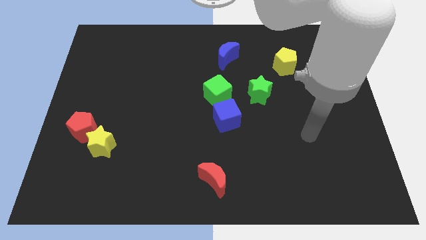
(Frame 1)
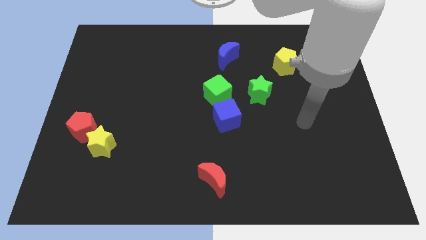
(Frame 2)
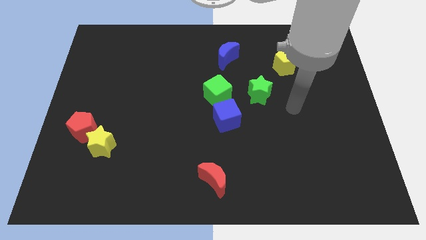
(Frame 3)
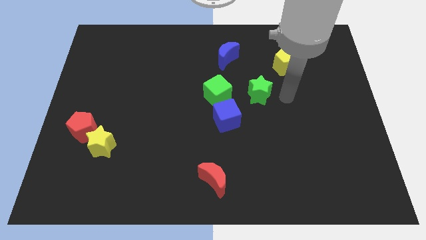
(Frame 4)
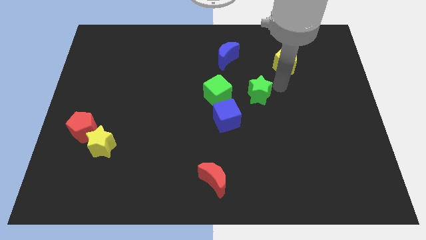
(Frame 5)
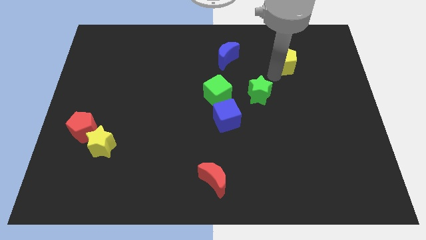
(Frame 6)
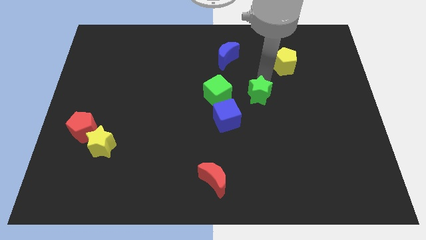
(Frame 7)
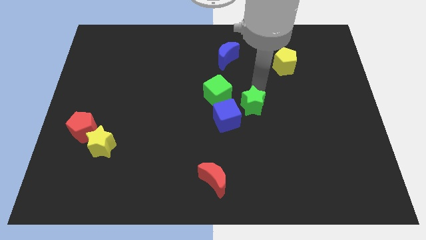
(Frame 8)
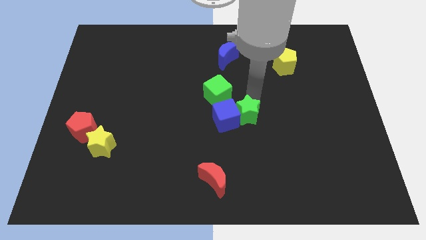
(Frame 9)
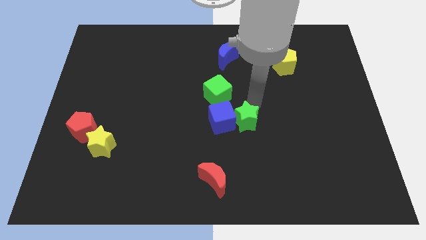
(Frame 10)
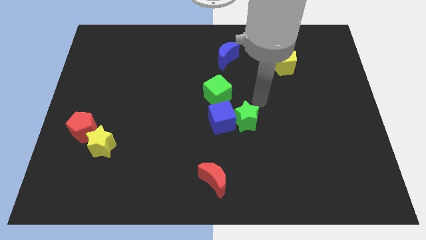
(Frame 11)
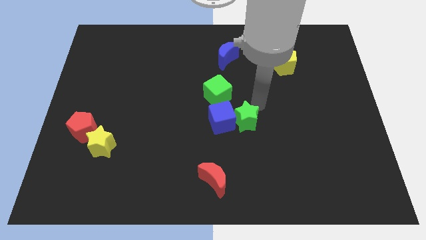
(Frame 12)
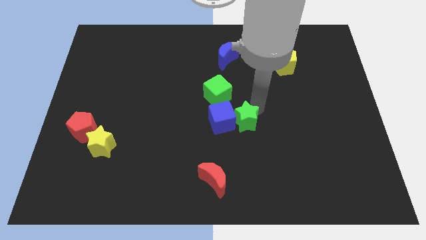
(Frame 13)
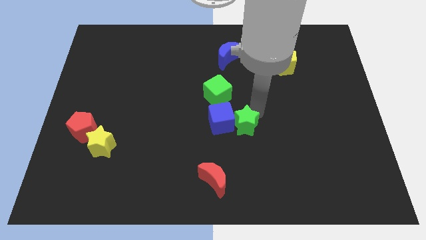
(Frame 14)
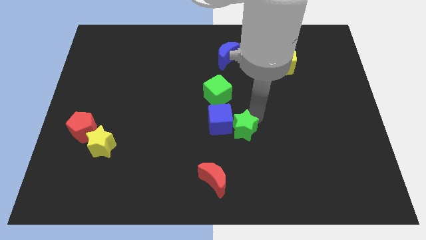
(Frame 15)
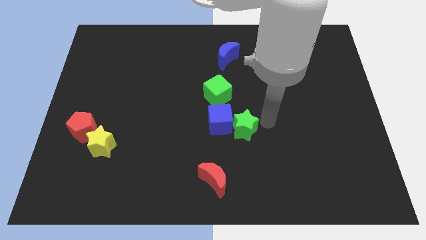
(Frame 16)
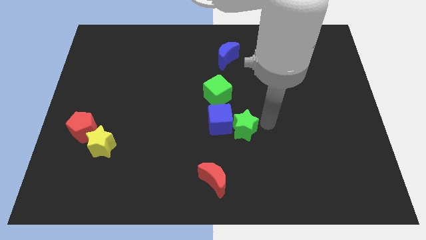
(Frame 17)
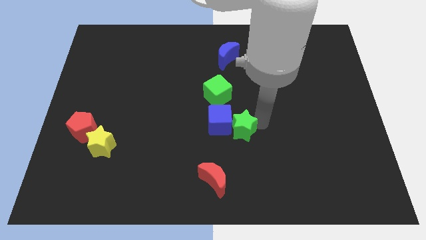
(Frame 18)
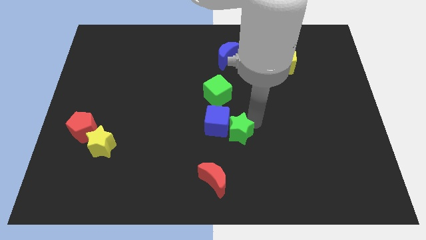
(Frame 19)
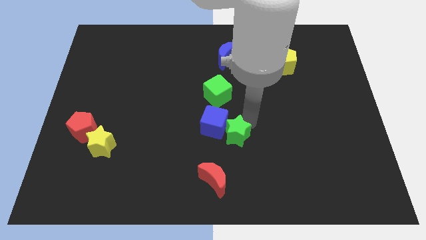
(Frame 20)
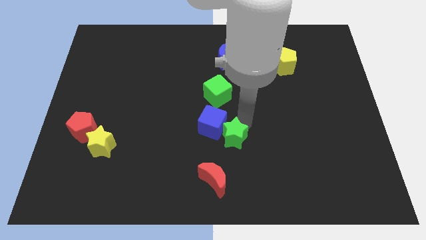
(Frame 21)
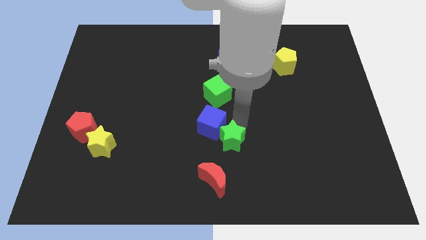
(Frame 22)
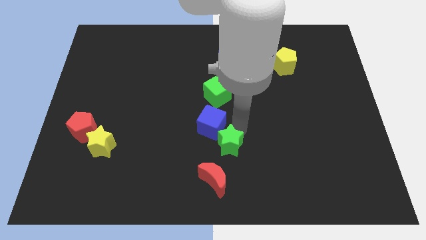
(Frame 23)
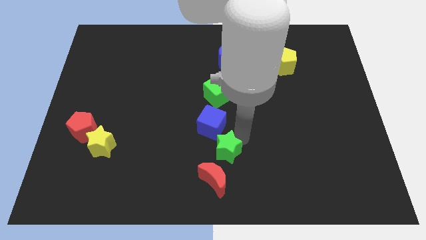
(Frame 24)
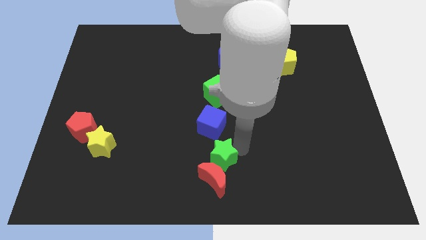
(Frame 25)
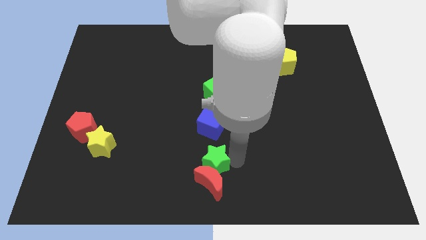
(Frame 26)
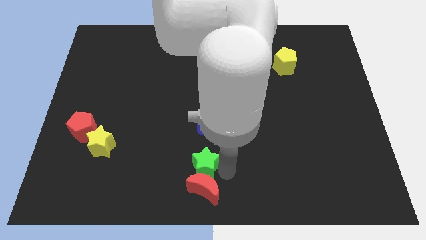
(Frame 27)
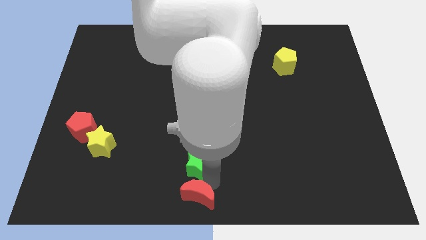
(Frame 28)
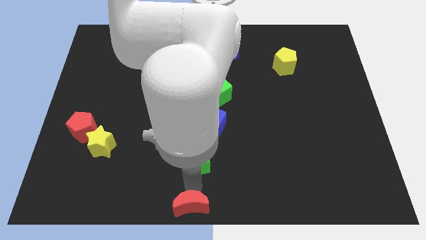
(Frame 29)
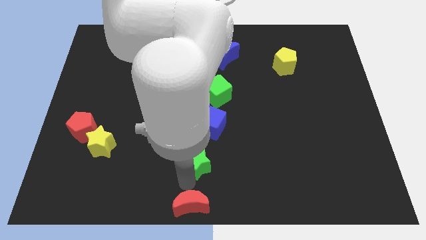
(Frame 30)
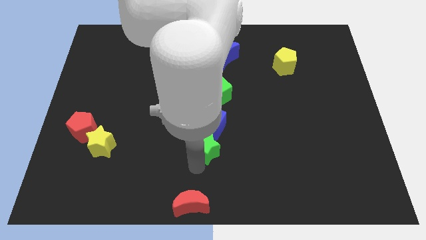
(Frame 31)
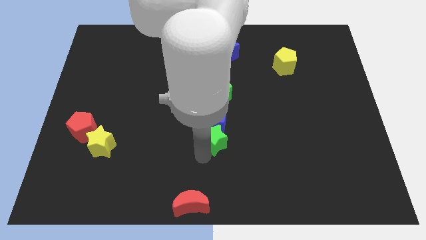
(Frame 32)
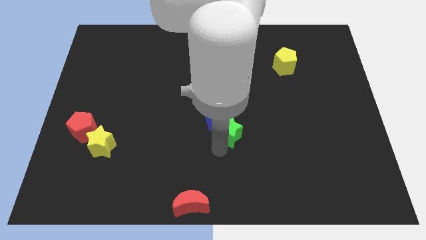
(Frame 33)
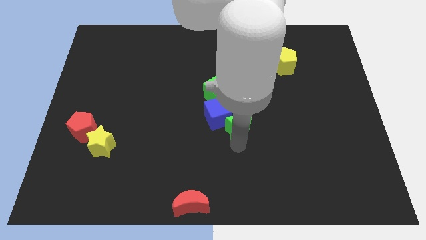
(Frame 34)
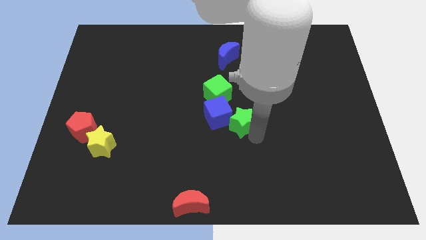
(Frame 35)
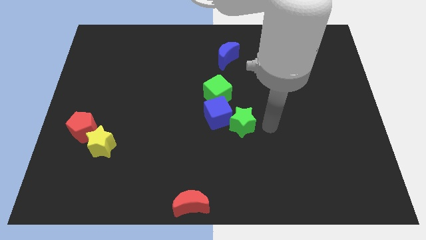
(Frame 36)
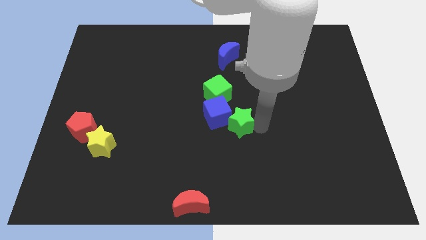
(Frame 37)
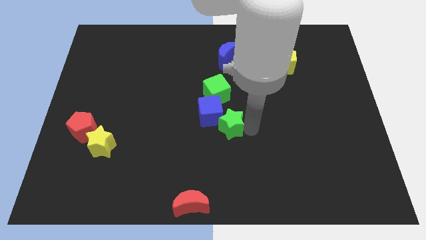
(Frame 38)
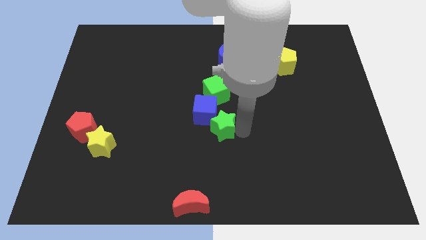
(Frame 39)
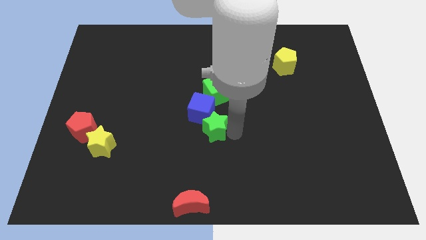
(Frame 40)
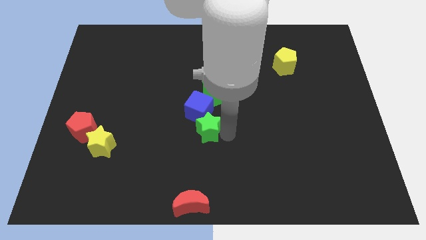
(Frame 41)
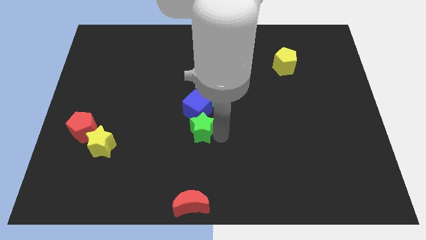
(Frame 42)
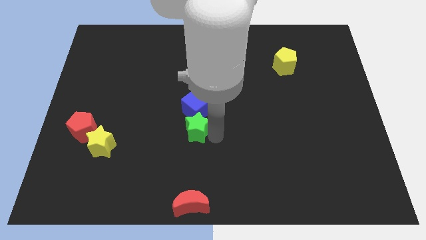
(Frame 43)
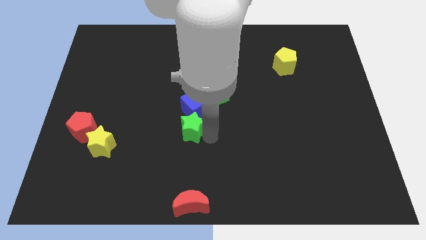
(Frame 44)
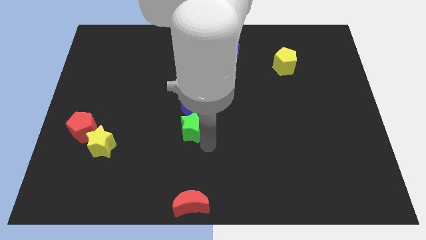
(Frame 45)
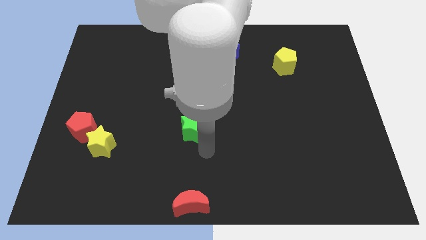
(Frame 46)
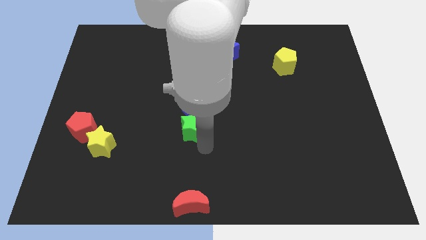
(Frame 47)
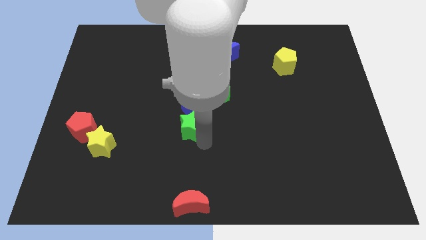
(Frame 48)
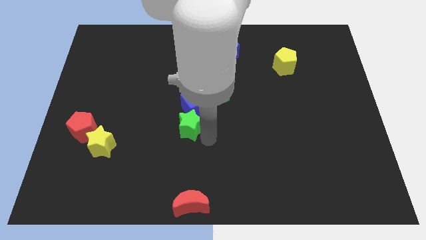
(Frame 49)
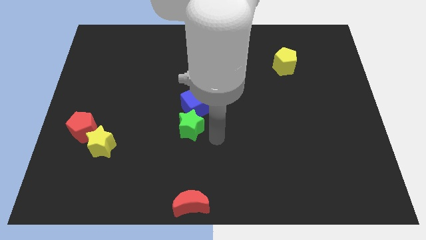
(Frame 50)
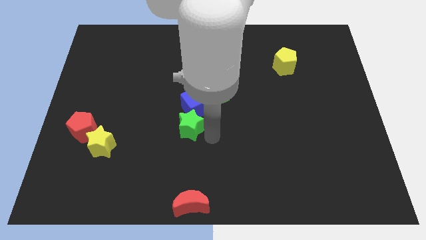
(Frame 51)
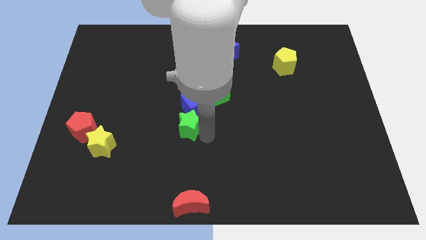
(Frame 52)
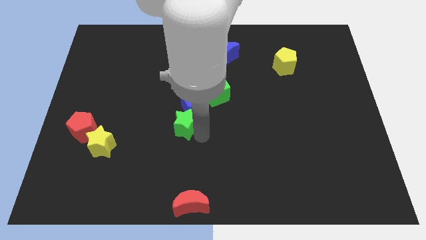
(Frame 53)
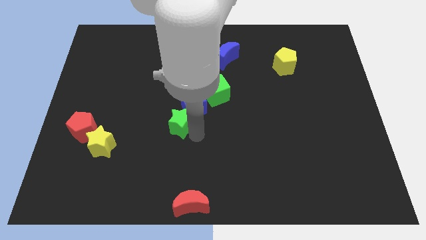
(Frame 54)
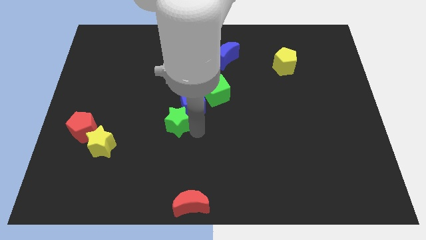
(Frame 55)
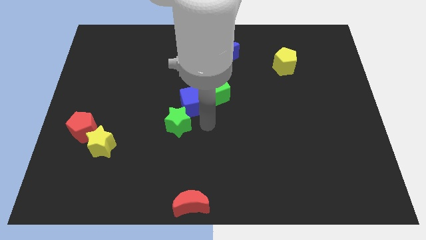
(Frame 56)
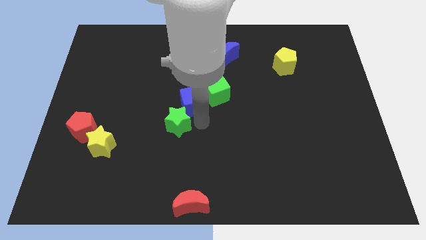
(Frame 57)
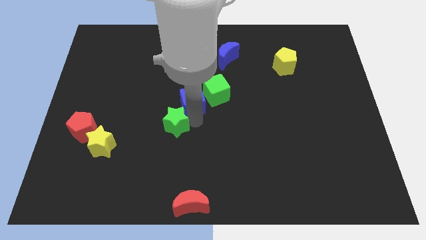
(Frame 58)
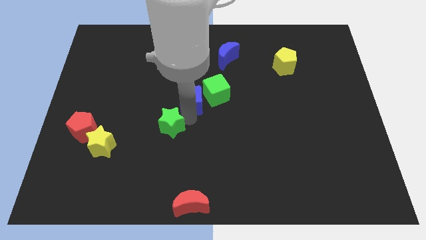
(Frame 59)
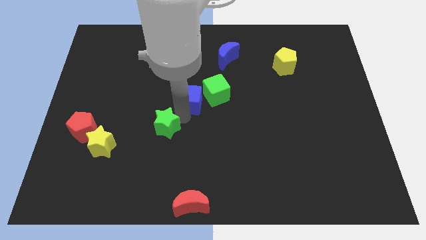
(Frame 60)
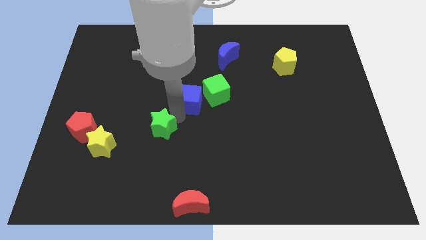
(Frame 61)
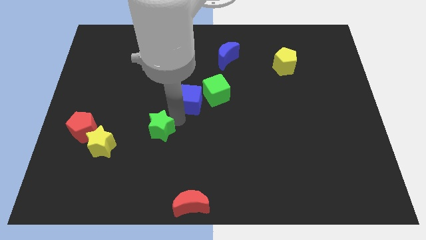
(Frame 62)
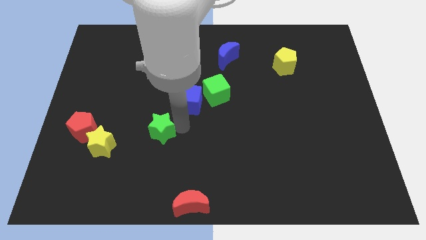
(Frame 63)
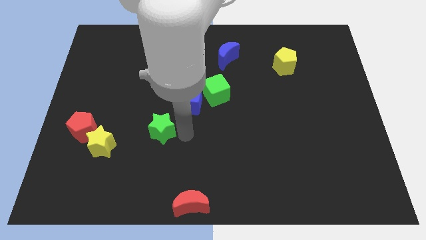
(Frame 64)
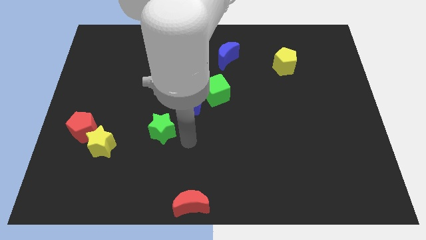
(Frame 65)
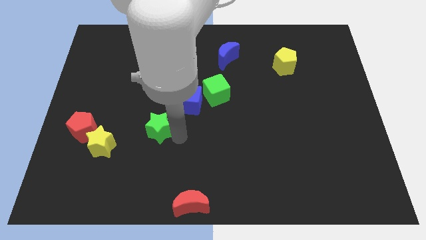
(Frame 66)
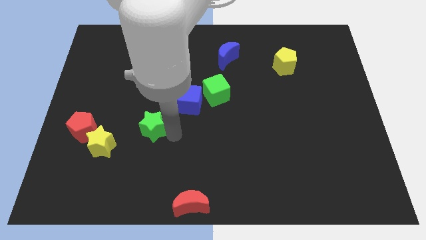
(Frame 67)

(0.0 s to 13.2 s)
move the green star to the top right side of the yellow star

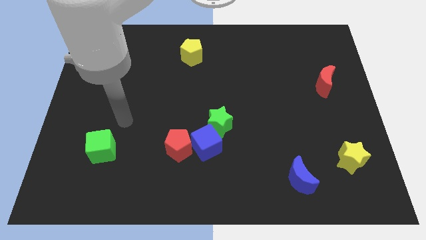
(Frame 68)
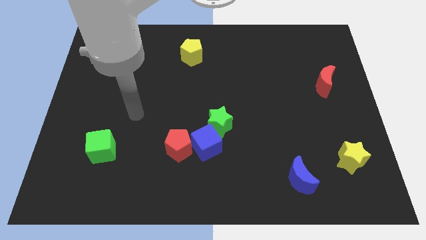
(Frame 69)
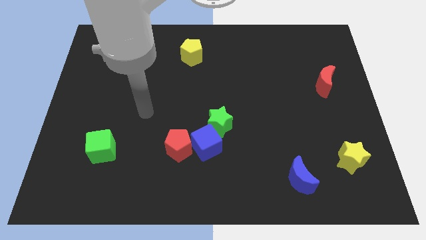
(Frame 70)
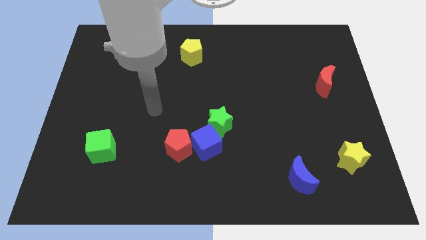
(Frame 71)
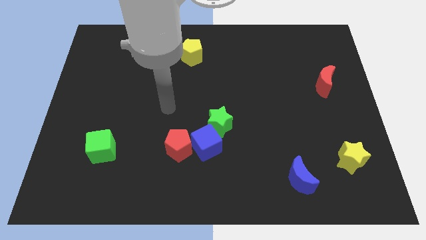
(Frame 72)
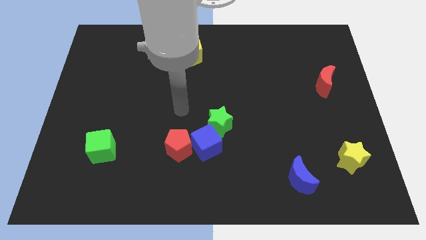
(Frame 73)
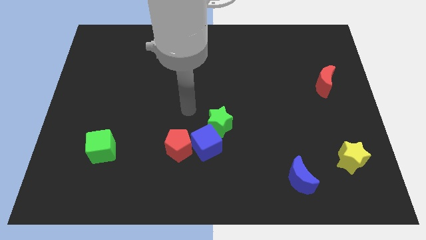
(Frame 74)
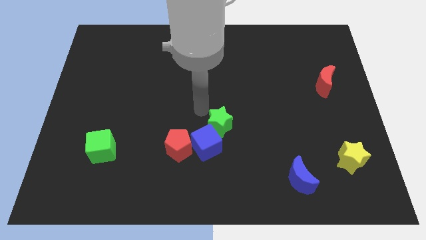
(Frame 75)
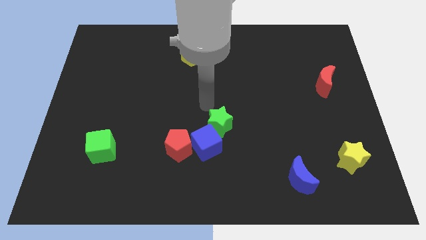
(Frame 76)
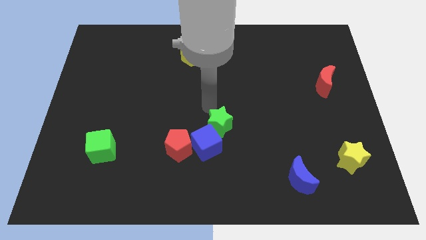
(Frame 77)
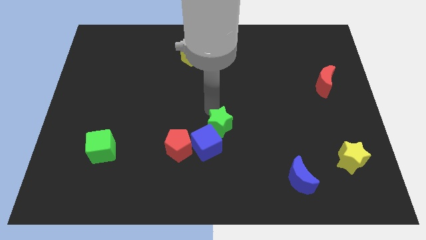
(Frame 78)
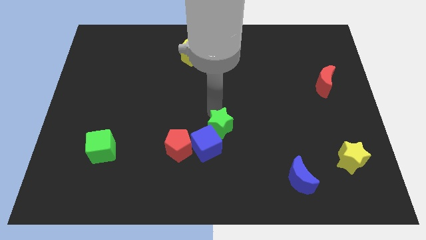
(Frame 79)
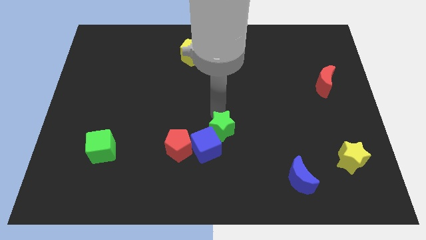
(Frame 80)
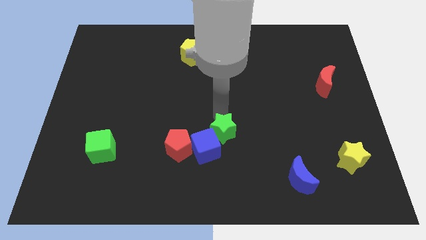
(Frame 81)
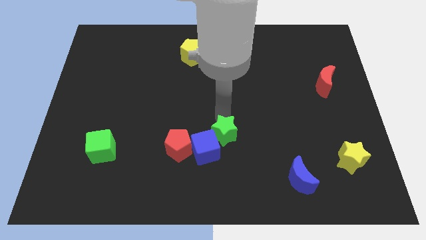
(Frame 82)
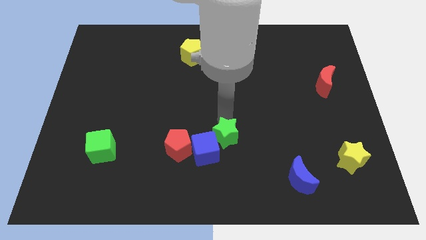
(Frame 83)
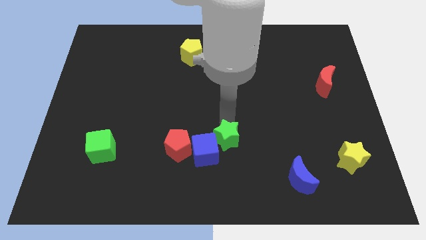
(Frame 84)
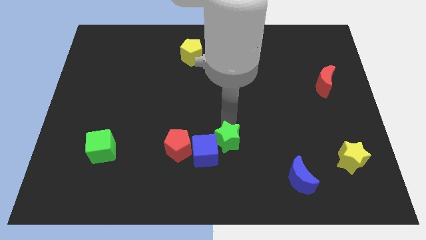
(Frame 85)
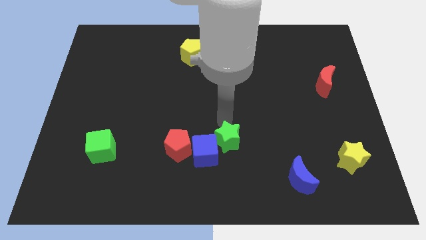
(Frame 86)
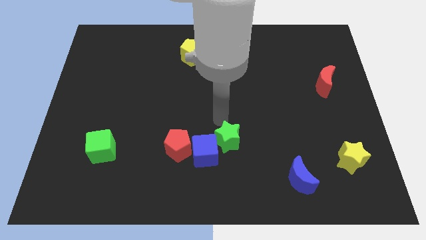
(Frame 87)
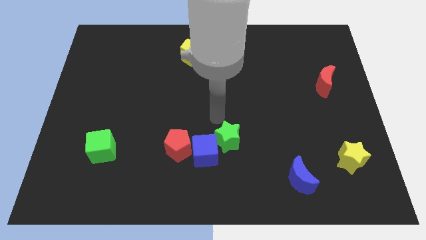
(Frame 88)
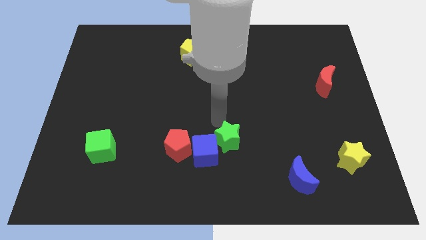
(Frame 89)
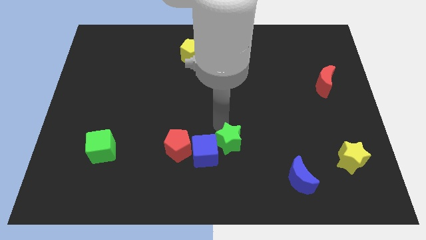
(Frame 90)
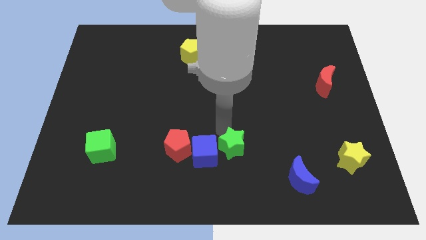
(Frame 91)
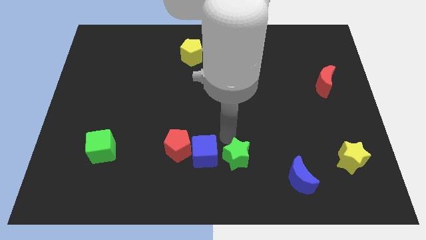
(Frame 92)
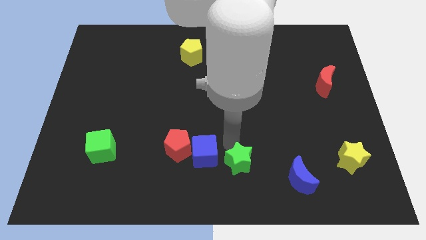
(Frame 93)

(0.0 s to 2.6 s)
move the green star left of the blue moon
